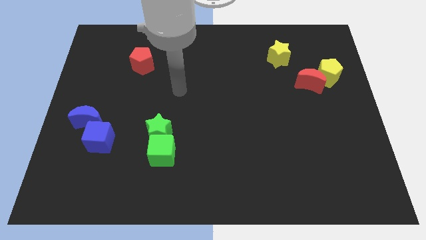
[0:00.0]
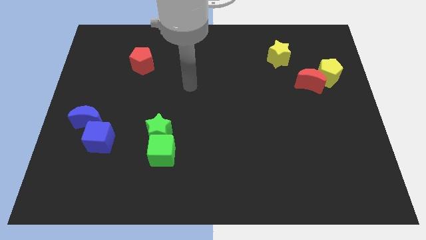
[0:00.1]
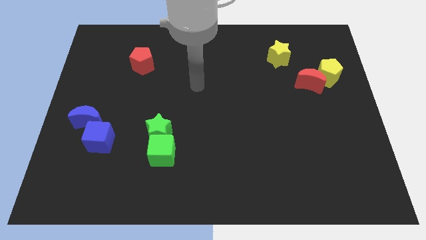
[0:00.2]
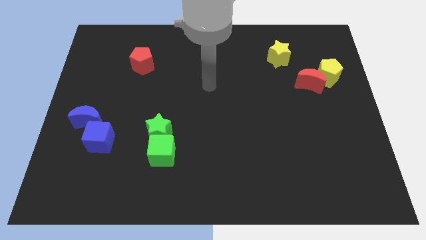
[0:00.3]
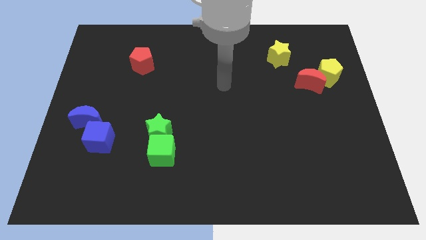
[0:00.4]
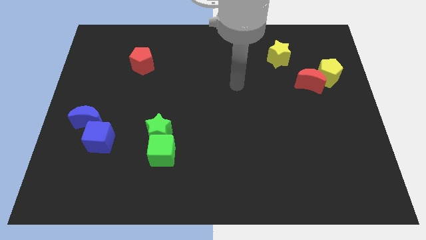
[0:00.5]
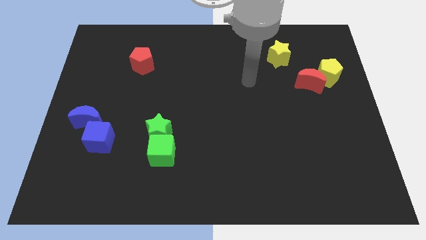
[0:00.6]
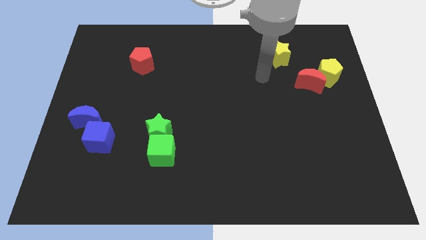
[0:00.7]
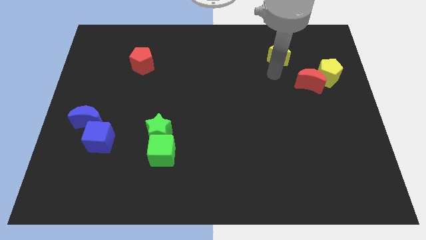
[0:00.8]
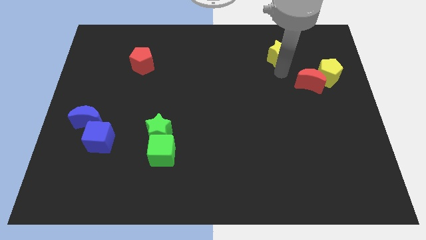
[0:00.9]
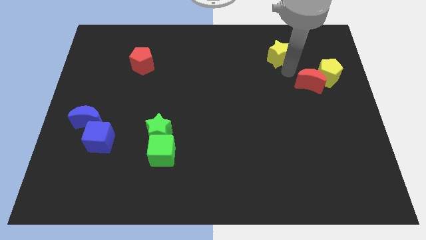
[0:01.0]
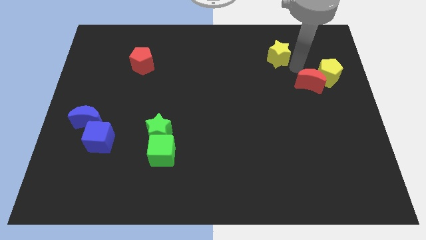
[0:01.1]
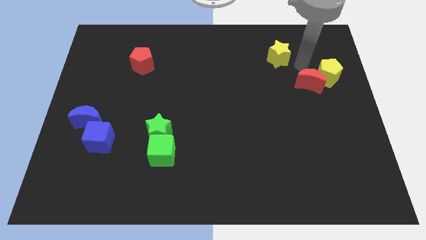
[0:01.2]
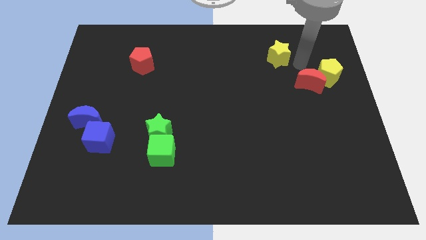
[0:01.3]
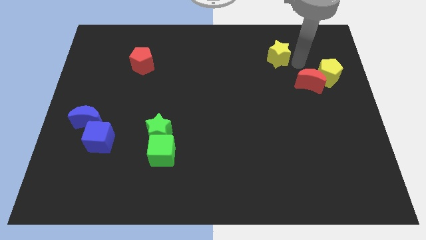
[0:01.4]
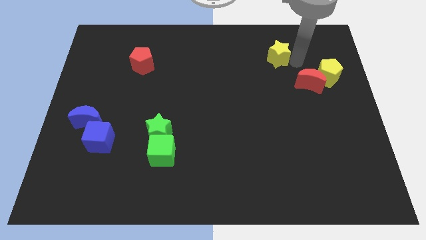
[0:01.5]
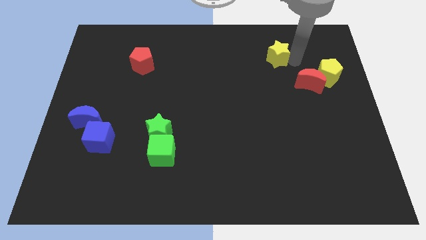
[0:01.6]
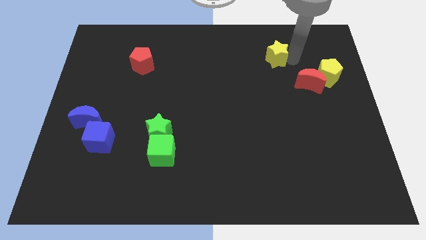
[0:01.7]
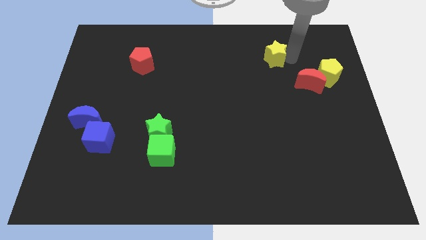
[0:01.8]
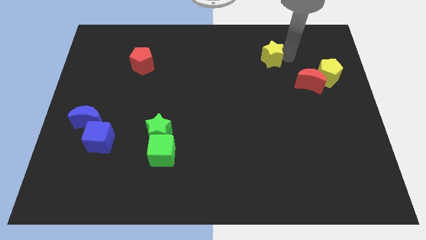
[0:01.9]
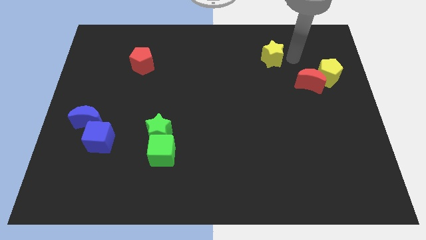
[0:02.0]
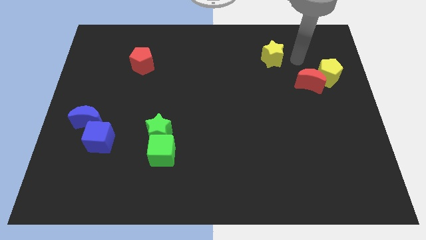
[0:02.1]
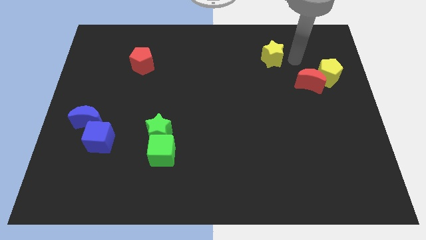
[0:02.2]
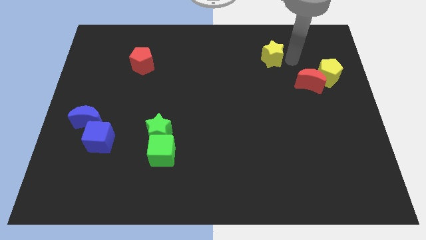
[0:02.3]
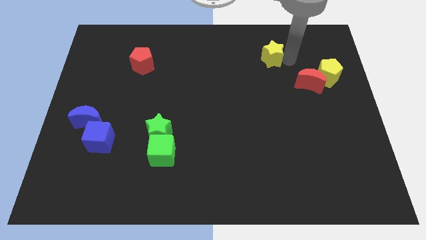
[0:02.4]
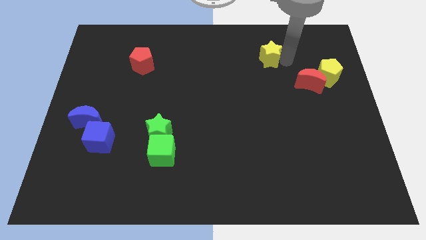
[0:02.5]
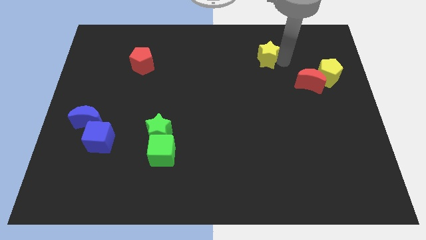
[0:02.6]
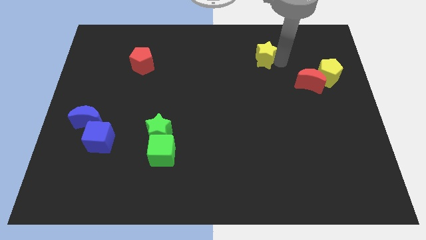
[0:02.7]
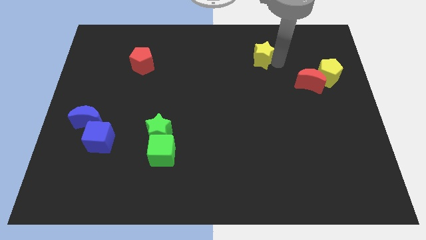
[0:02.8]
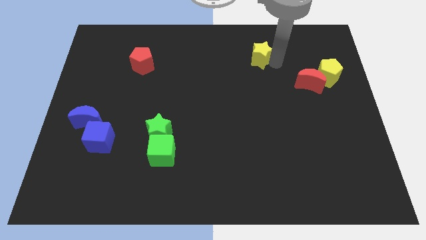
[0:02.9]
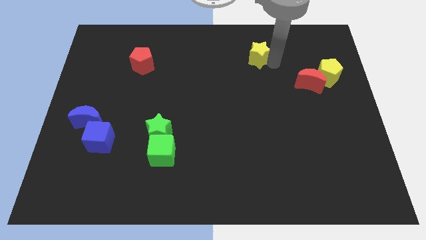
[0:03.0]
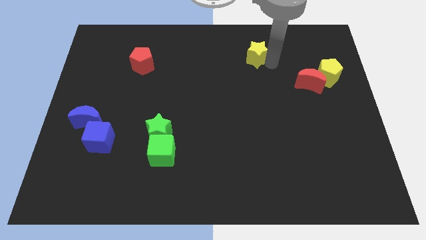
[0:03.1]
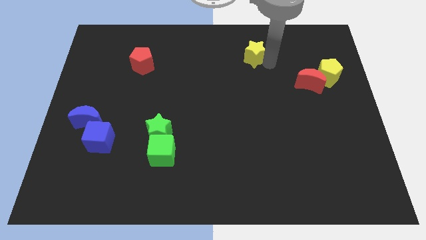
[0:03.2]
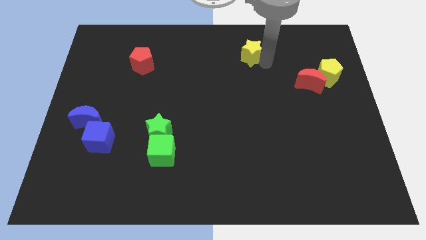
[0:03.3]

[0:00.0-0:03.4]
slightly slide the yellow star to the left

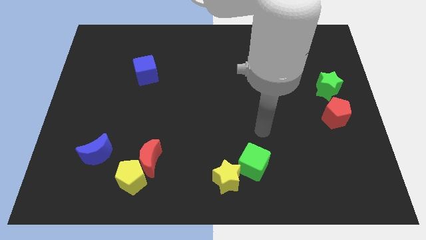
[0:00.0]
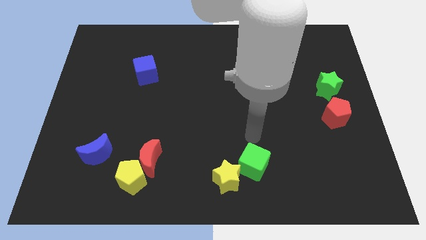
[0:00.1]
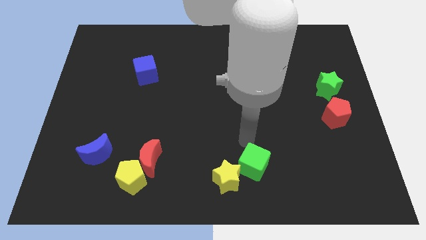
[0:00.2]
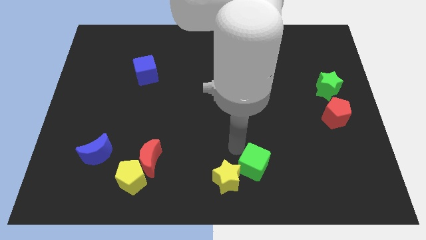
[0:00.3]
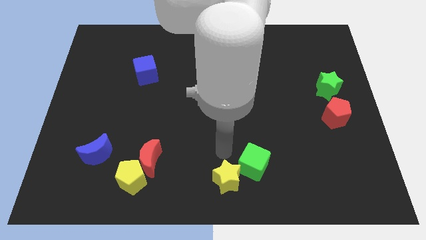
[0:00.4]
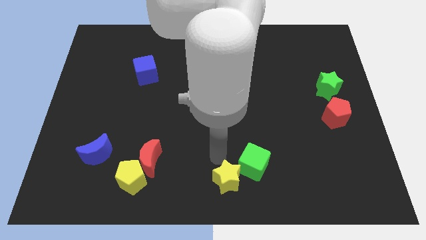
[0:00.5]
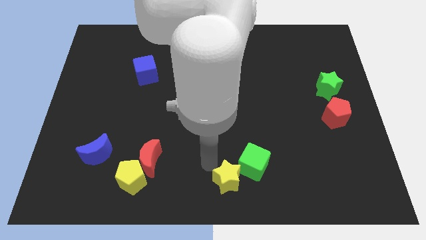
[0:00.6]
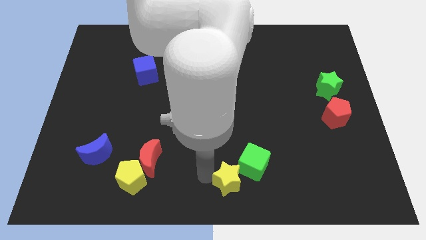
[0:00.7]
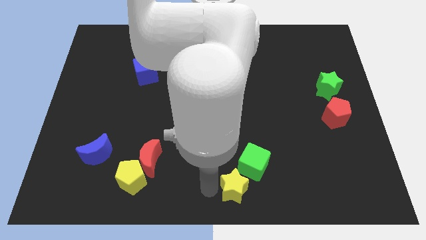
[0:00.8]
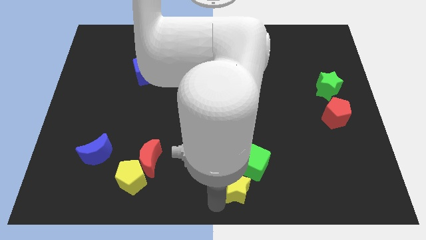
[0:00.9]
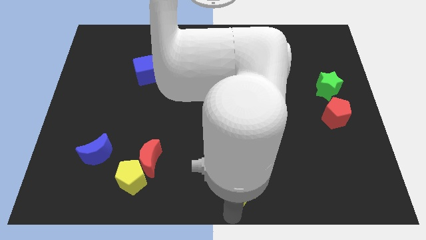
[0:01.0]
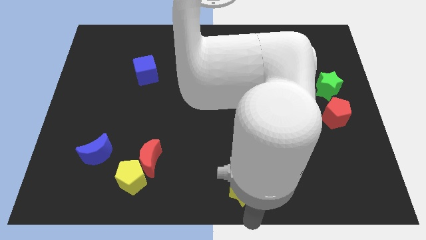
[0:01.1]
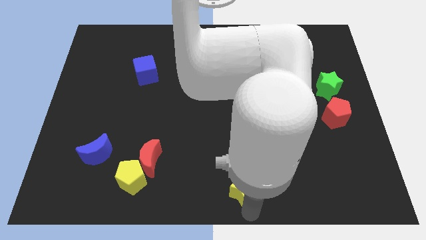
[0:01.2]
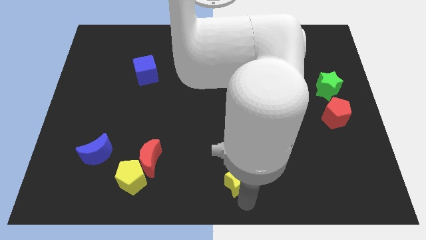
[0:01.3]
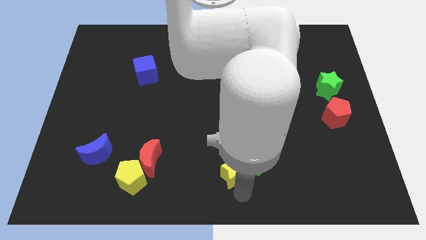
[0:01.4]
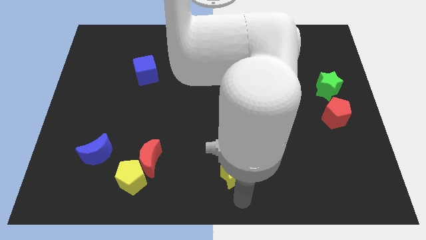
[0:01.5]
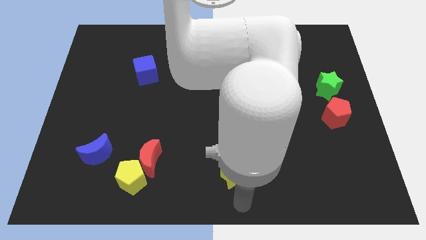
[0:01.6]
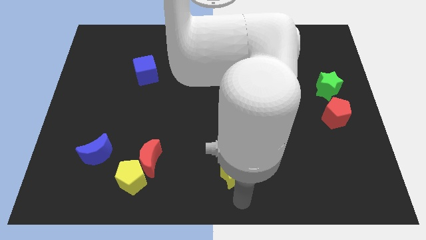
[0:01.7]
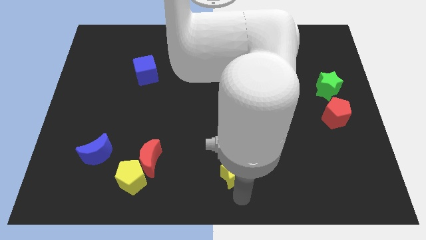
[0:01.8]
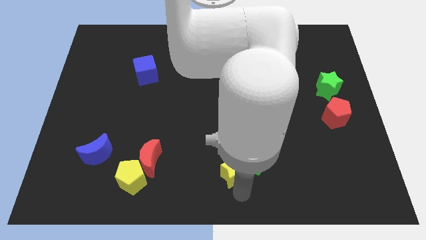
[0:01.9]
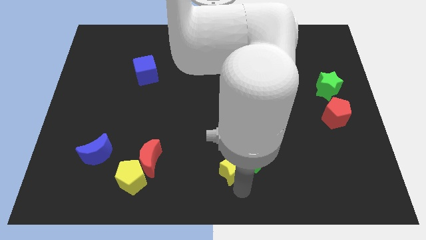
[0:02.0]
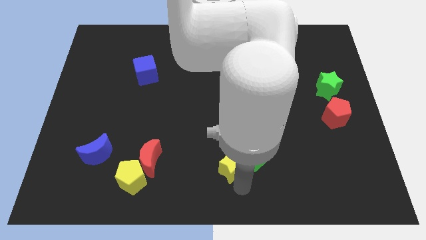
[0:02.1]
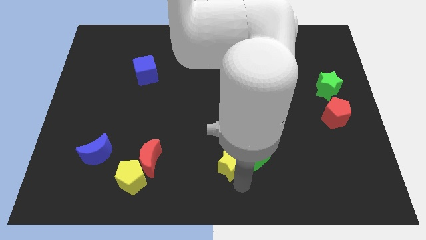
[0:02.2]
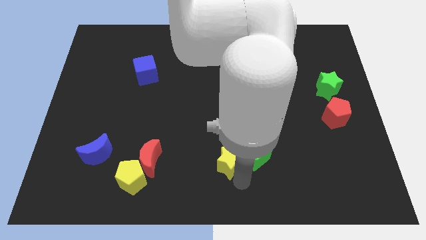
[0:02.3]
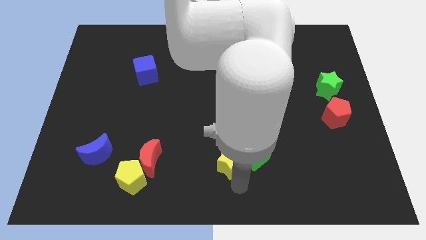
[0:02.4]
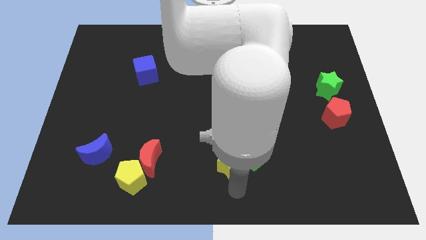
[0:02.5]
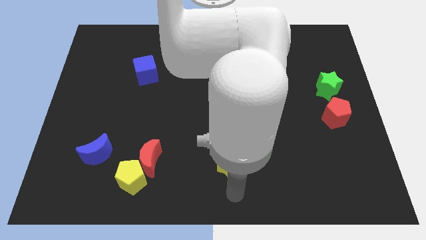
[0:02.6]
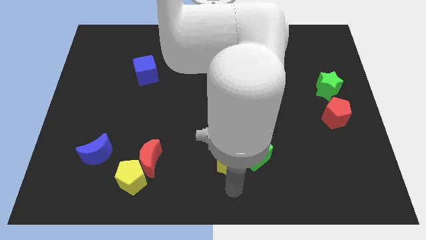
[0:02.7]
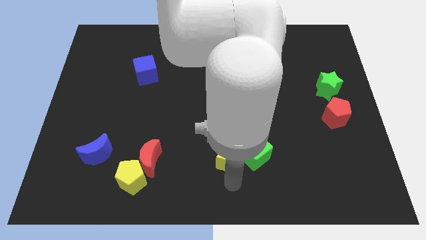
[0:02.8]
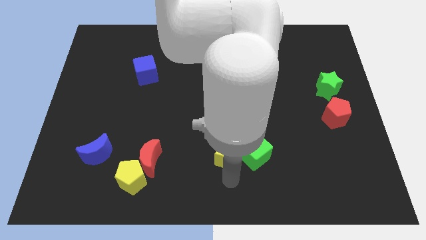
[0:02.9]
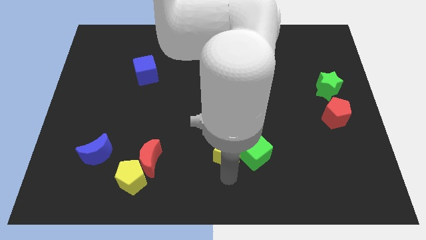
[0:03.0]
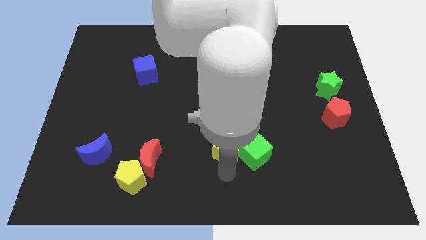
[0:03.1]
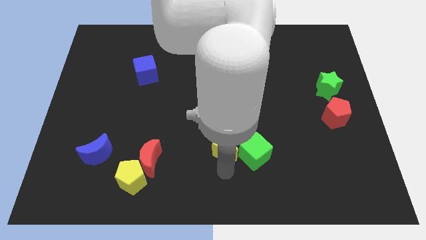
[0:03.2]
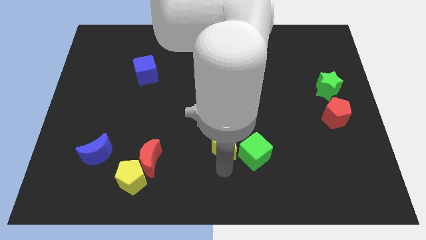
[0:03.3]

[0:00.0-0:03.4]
slightly move the yellow star upwards

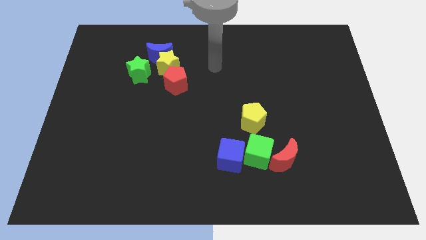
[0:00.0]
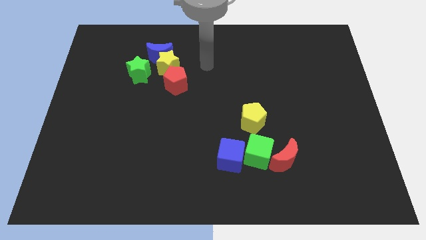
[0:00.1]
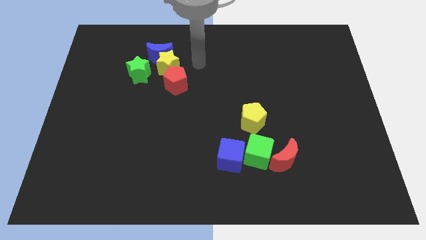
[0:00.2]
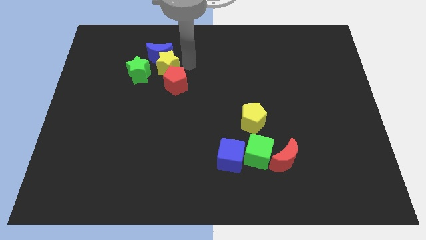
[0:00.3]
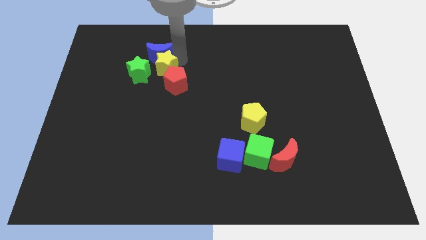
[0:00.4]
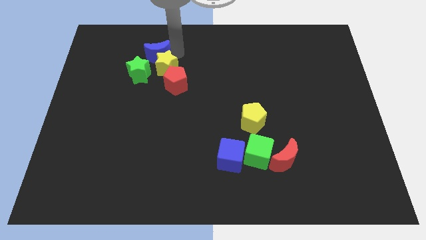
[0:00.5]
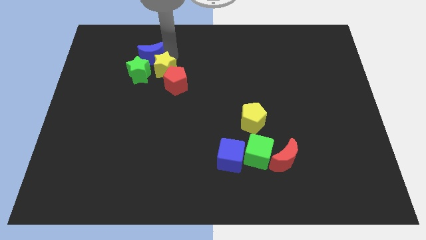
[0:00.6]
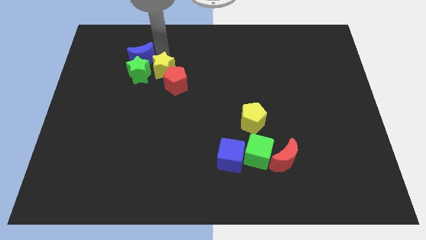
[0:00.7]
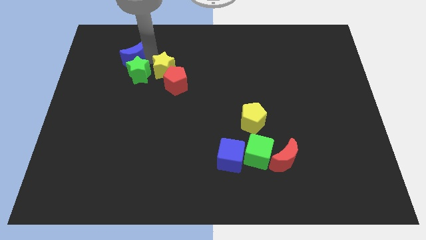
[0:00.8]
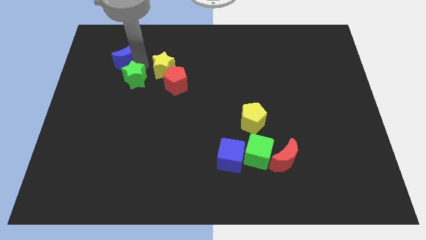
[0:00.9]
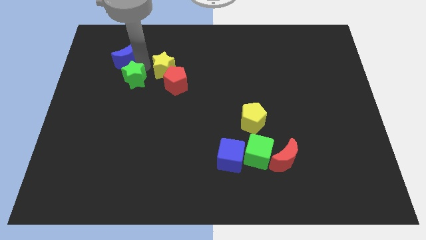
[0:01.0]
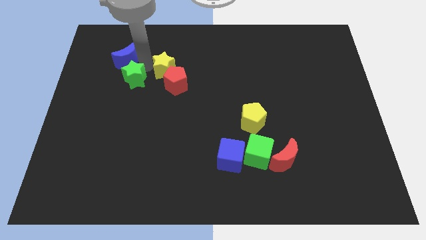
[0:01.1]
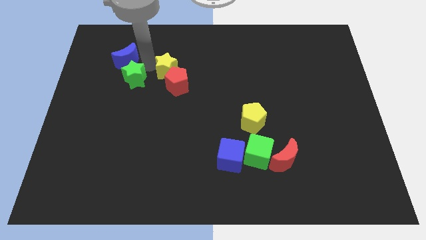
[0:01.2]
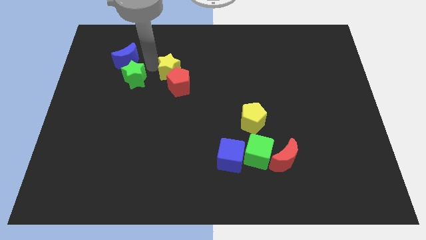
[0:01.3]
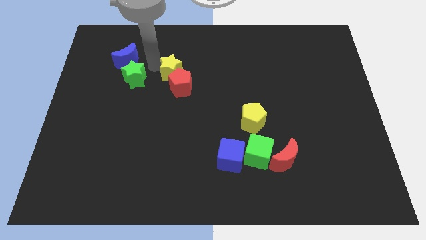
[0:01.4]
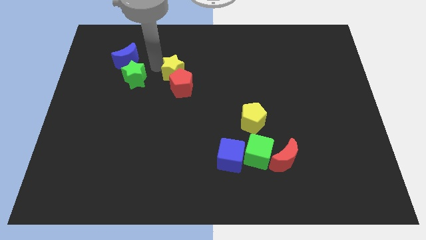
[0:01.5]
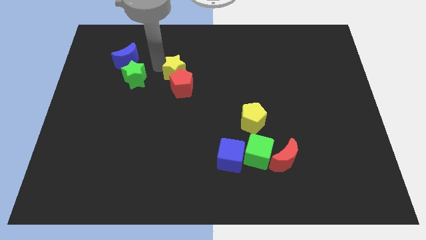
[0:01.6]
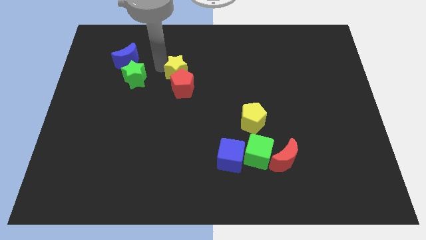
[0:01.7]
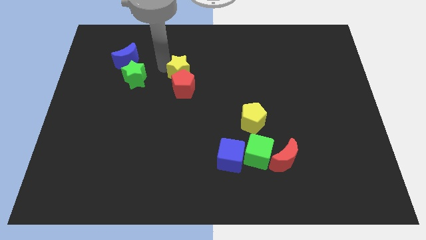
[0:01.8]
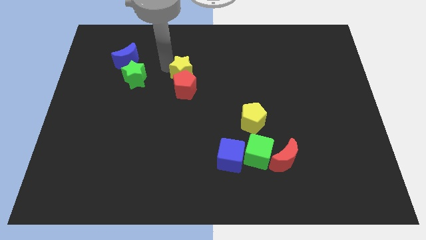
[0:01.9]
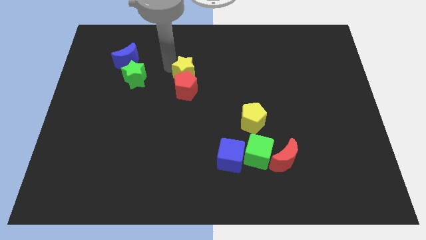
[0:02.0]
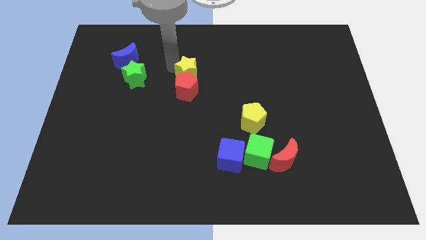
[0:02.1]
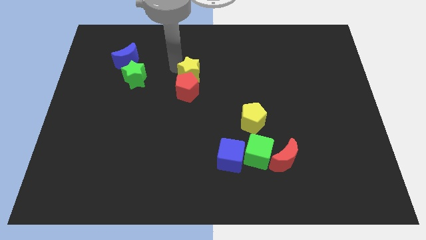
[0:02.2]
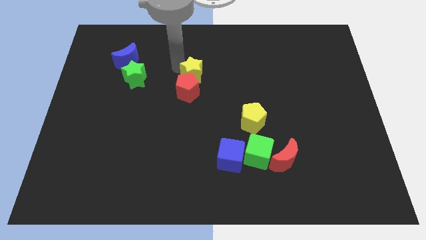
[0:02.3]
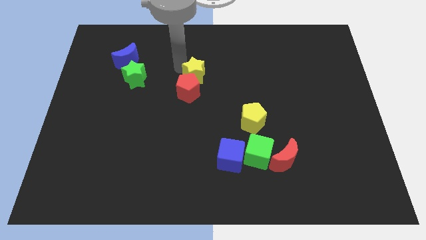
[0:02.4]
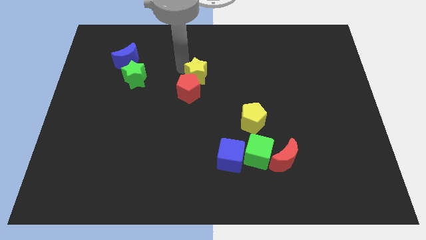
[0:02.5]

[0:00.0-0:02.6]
slightly move the yellow star diagonally downwards and right
